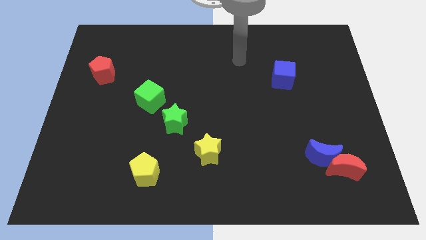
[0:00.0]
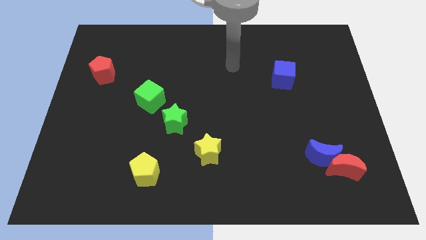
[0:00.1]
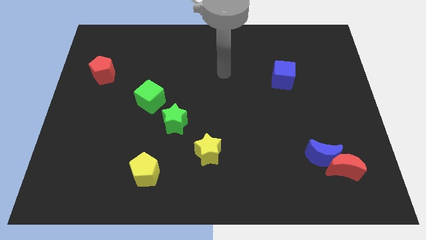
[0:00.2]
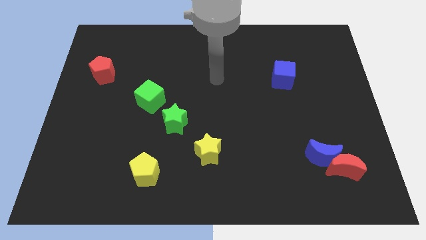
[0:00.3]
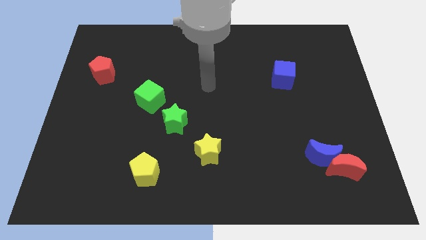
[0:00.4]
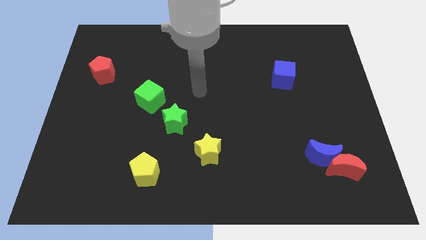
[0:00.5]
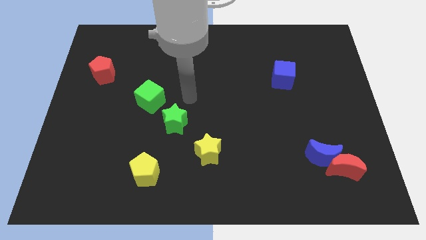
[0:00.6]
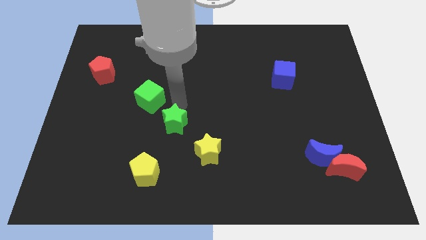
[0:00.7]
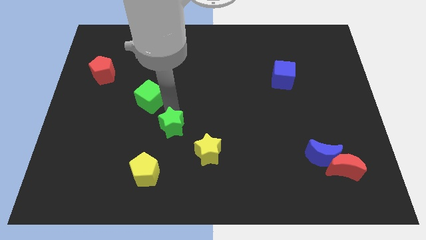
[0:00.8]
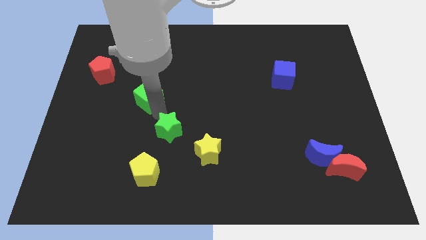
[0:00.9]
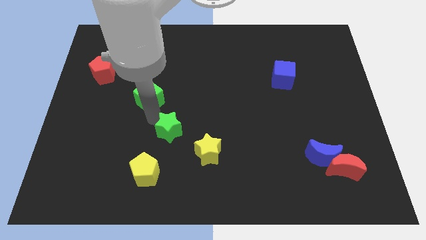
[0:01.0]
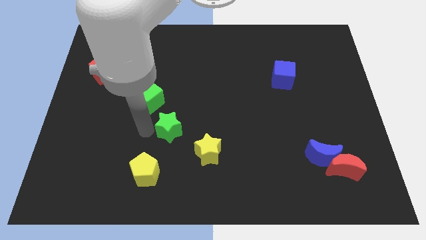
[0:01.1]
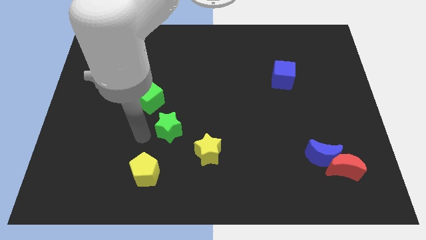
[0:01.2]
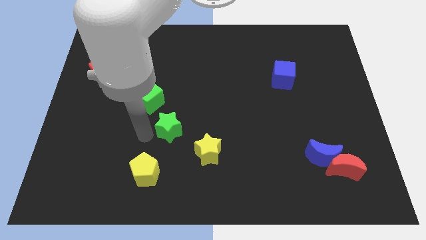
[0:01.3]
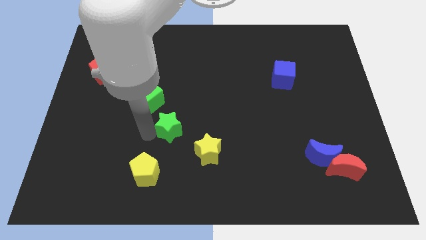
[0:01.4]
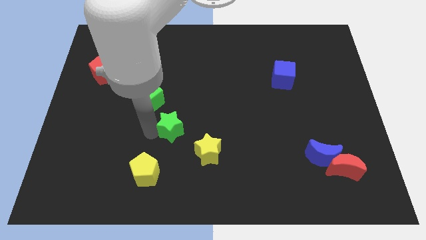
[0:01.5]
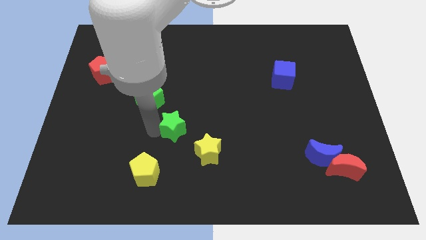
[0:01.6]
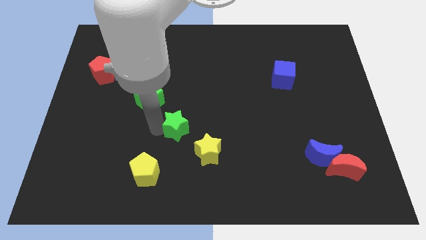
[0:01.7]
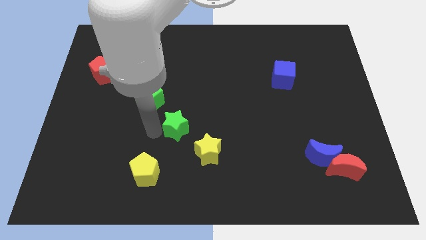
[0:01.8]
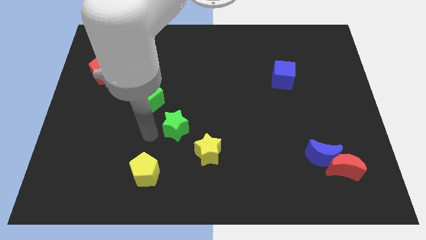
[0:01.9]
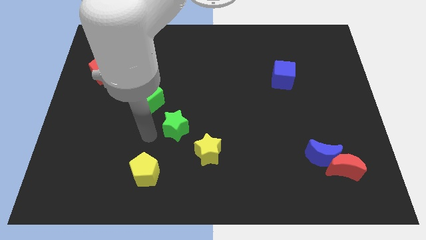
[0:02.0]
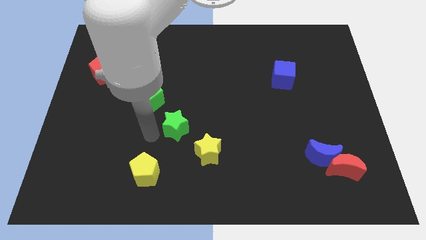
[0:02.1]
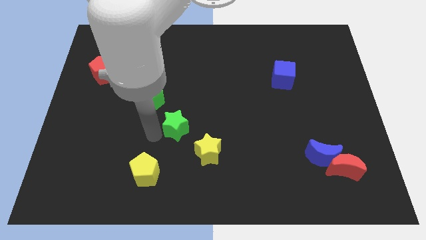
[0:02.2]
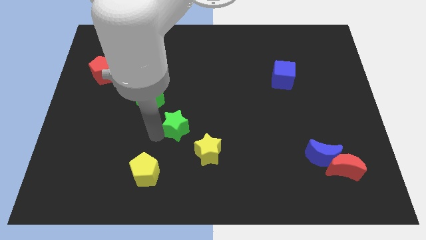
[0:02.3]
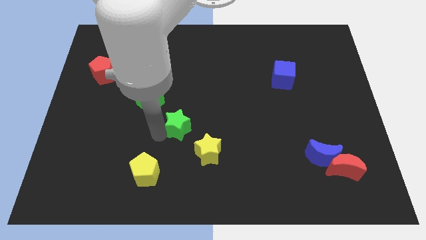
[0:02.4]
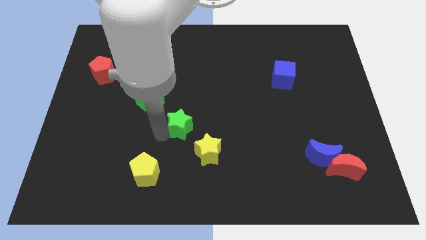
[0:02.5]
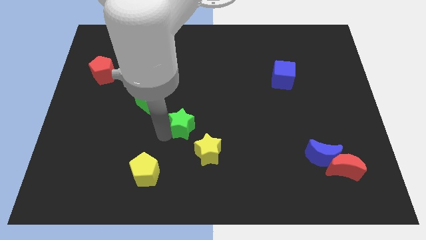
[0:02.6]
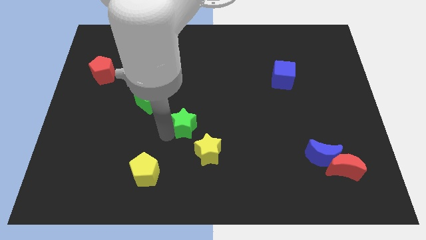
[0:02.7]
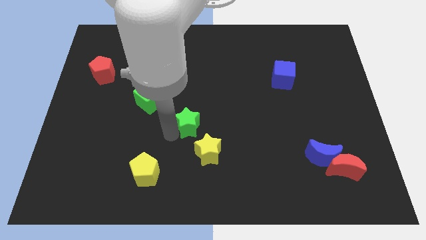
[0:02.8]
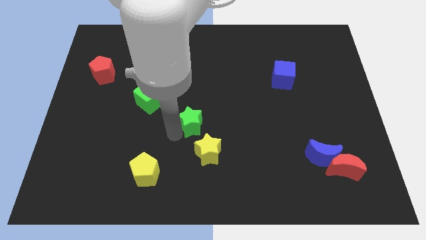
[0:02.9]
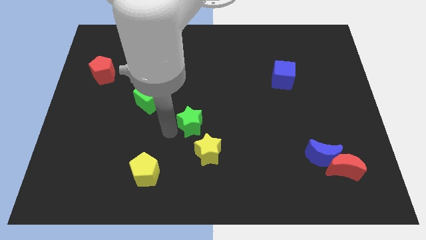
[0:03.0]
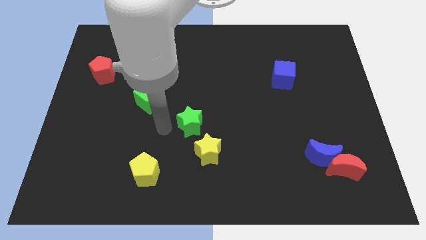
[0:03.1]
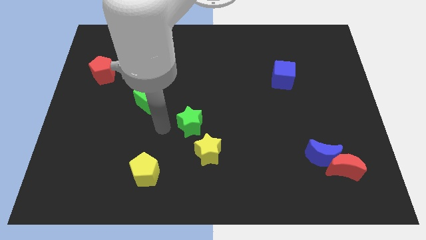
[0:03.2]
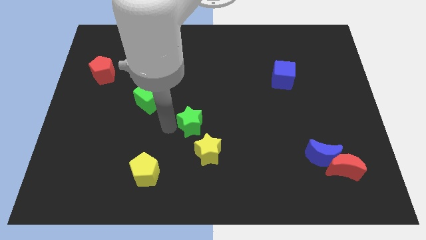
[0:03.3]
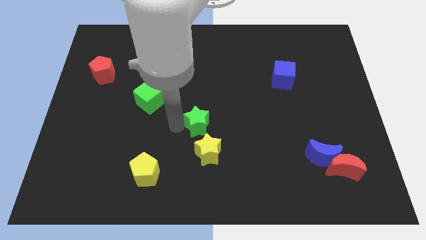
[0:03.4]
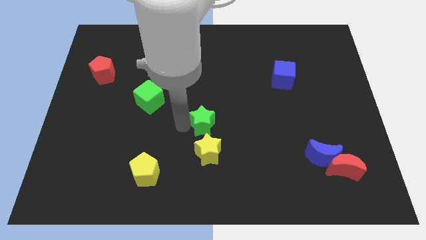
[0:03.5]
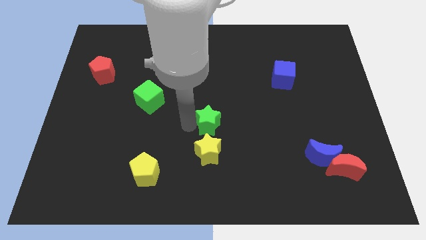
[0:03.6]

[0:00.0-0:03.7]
push the green star slightly to the right

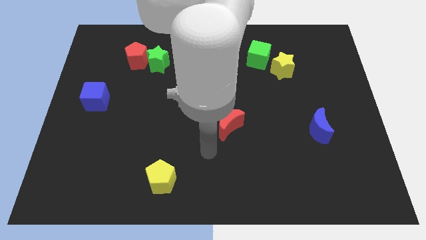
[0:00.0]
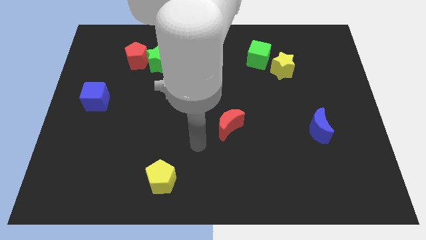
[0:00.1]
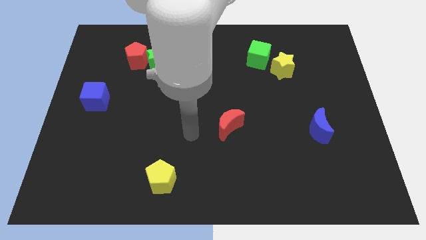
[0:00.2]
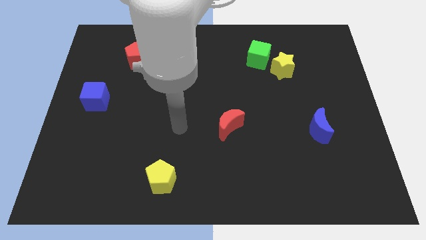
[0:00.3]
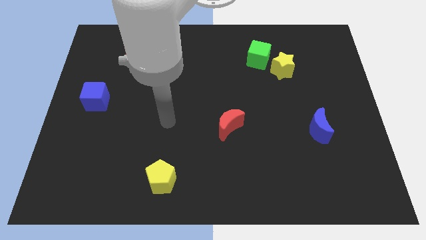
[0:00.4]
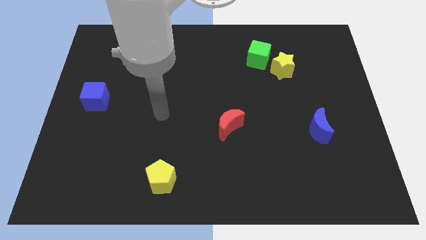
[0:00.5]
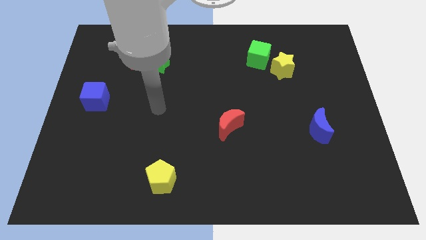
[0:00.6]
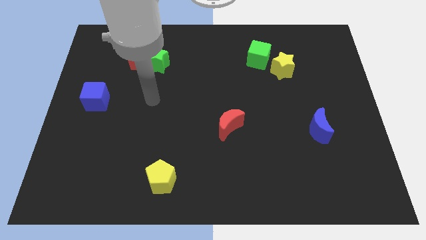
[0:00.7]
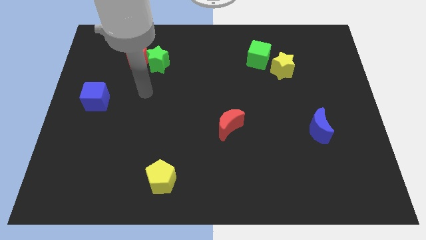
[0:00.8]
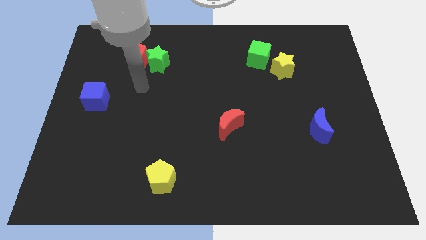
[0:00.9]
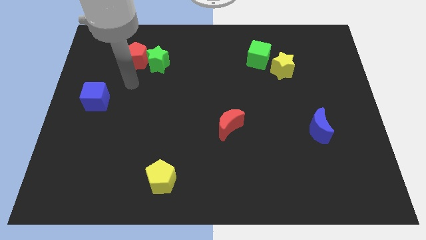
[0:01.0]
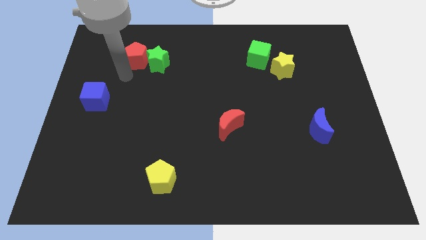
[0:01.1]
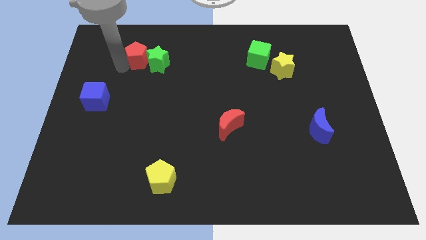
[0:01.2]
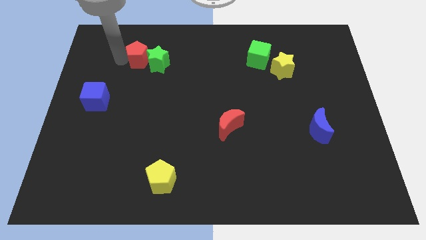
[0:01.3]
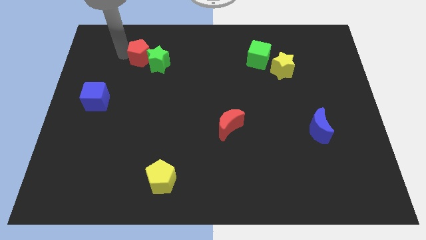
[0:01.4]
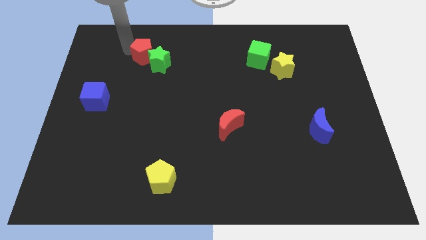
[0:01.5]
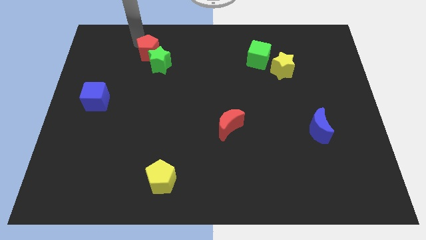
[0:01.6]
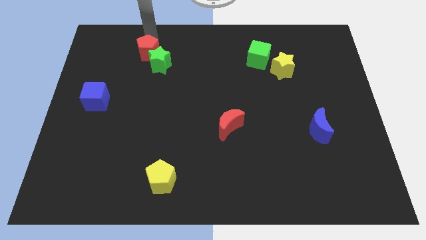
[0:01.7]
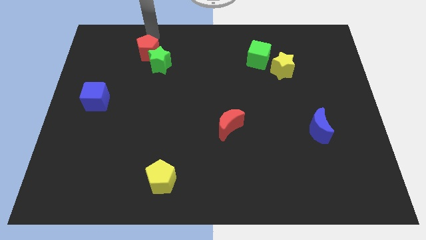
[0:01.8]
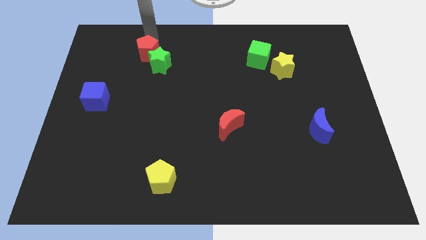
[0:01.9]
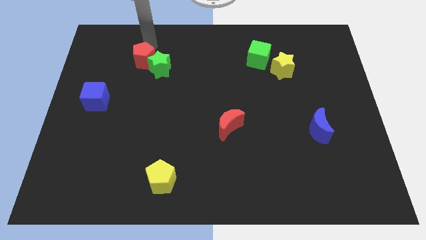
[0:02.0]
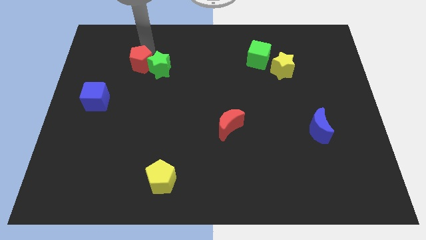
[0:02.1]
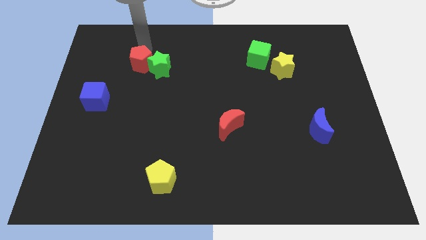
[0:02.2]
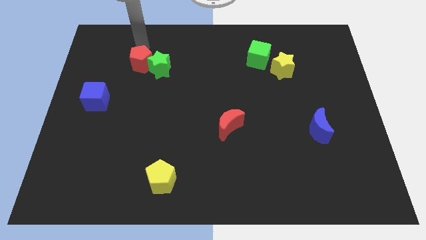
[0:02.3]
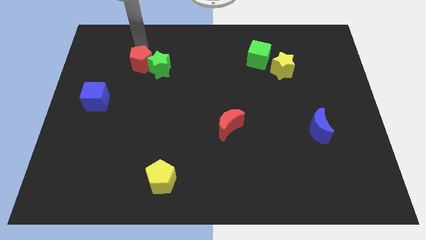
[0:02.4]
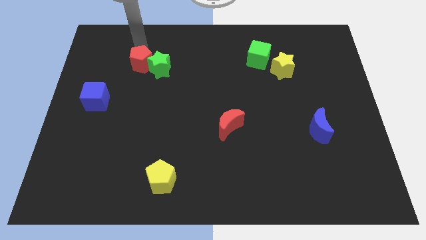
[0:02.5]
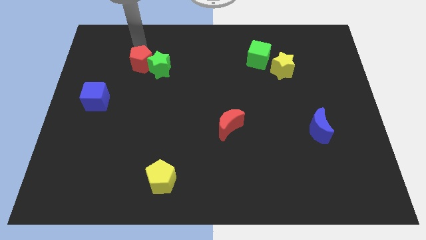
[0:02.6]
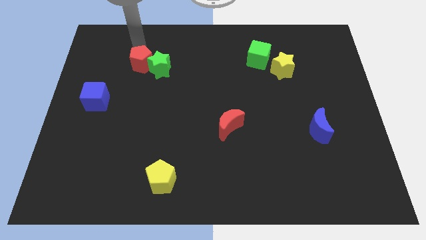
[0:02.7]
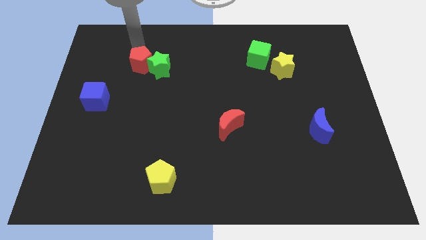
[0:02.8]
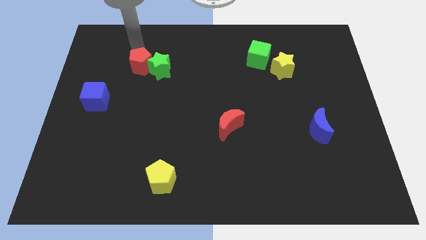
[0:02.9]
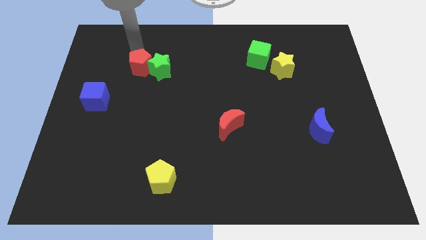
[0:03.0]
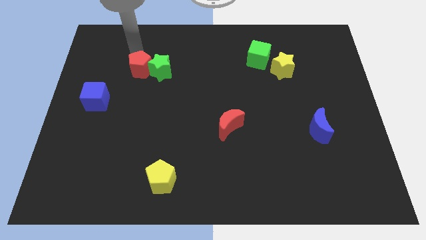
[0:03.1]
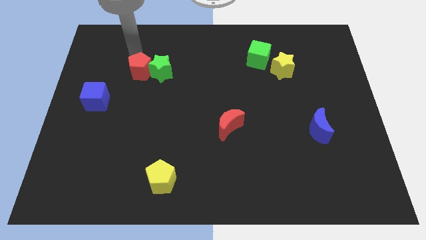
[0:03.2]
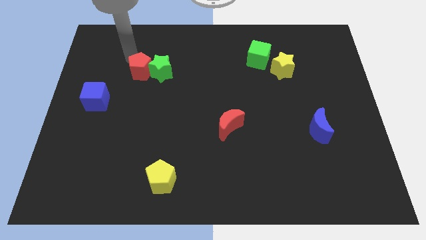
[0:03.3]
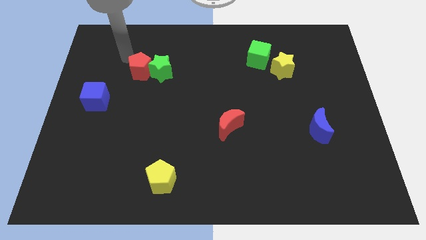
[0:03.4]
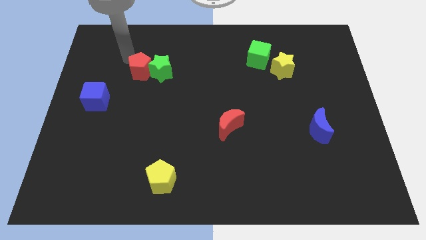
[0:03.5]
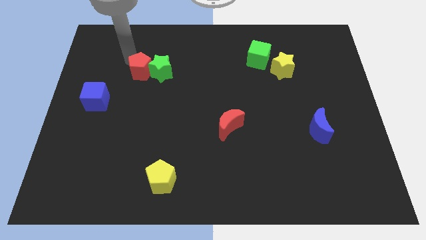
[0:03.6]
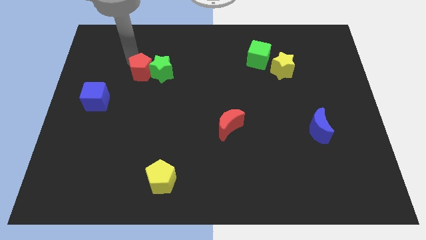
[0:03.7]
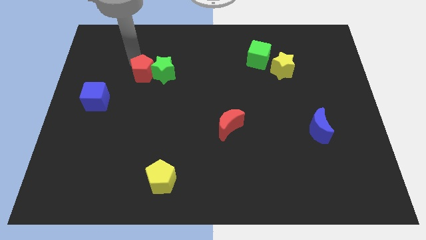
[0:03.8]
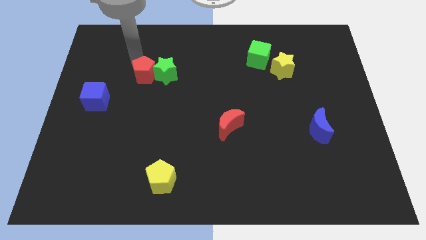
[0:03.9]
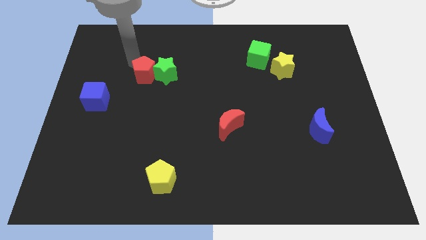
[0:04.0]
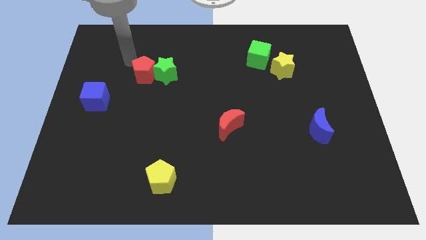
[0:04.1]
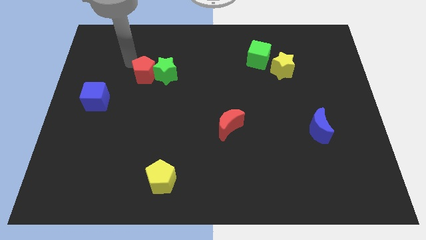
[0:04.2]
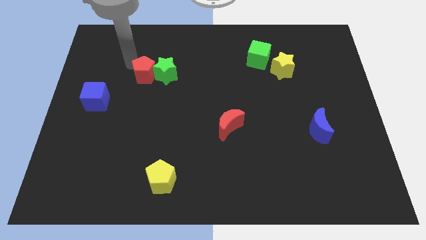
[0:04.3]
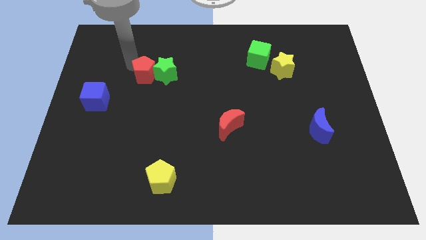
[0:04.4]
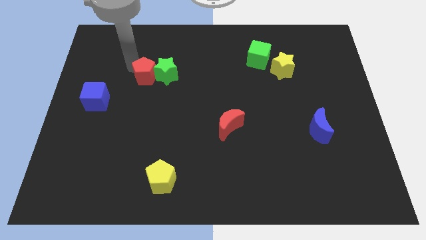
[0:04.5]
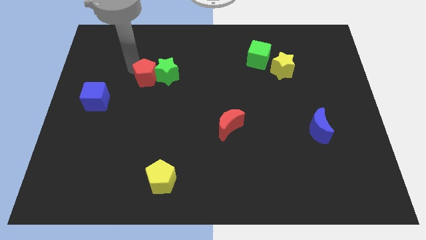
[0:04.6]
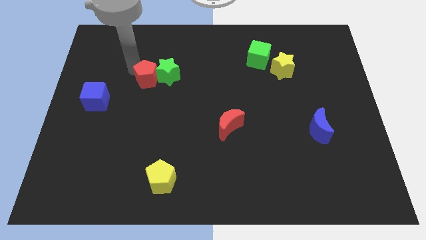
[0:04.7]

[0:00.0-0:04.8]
move the red pentagon down and to the right diagonally slightly
